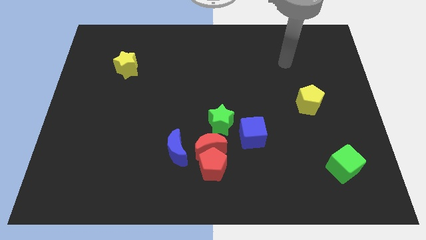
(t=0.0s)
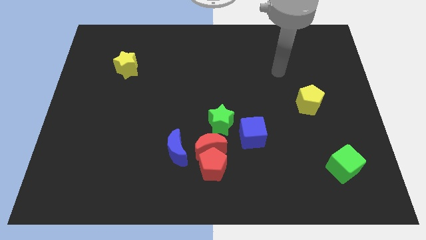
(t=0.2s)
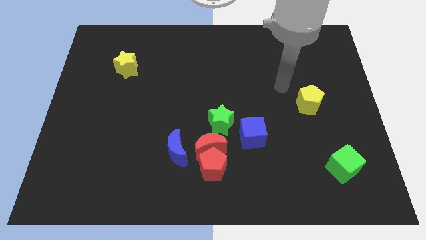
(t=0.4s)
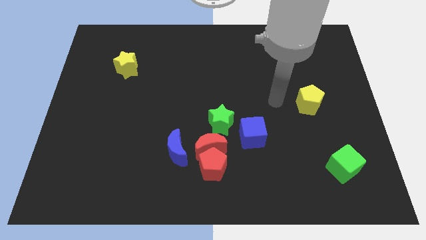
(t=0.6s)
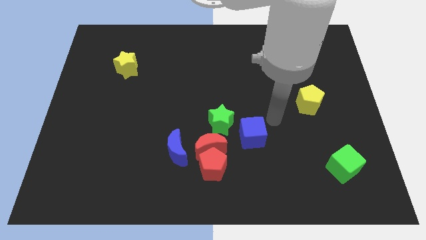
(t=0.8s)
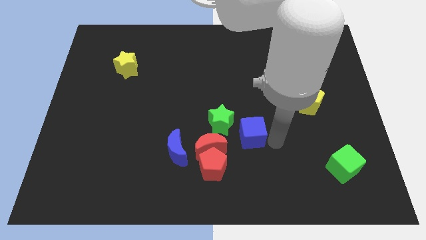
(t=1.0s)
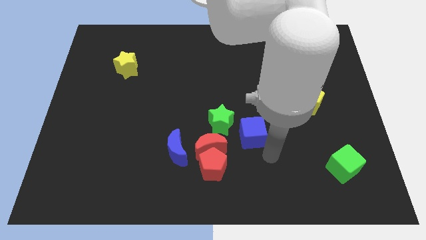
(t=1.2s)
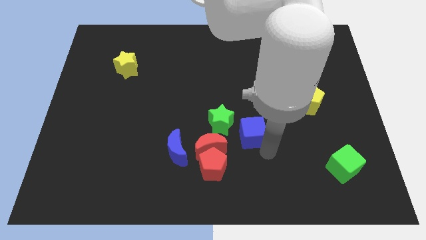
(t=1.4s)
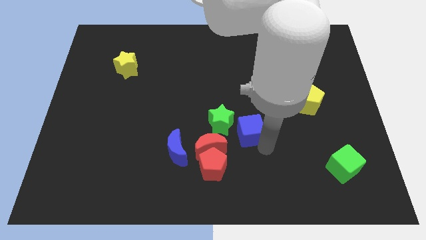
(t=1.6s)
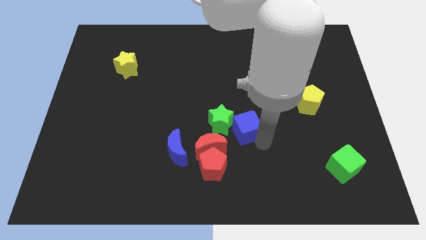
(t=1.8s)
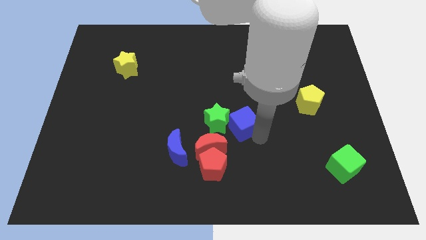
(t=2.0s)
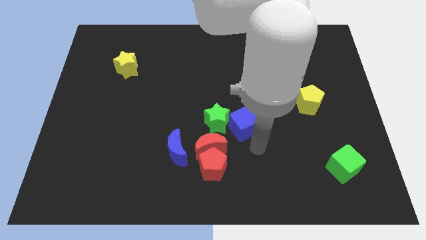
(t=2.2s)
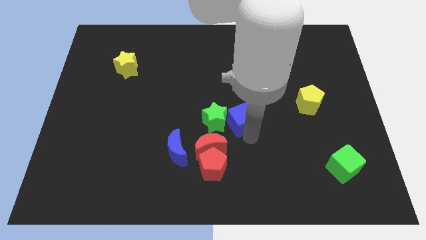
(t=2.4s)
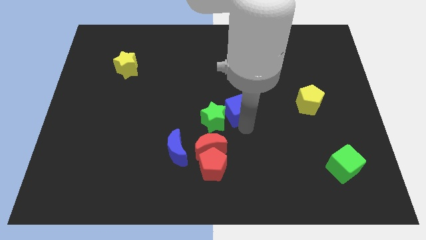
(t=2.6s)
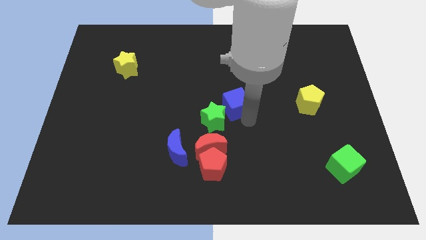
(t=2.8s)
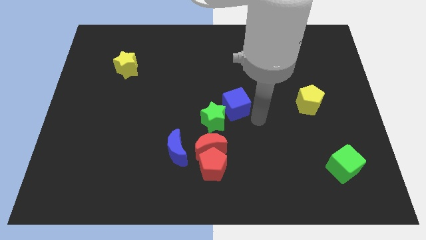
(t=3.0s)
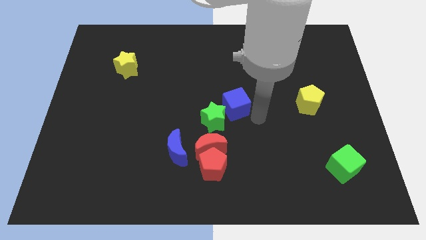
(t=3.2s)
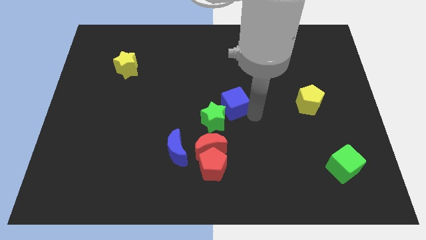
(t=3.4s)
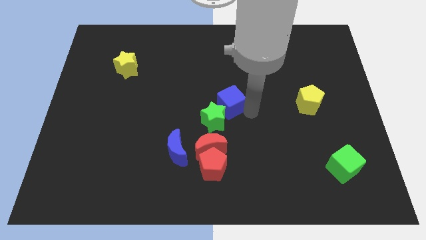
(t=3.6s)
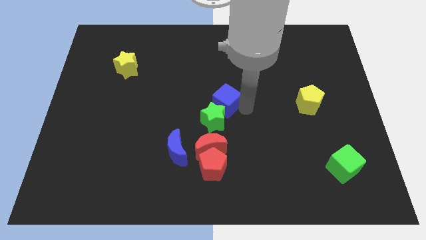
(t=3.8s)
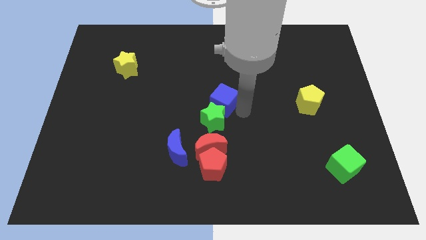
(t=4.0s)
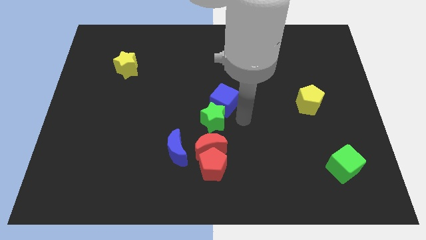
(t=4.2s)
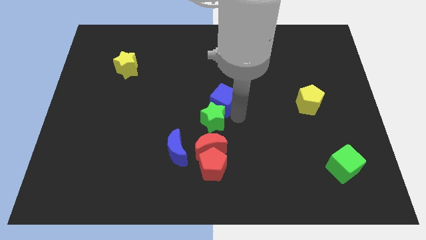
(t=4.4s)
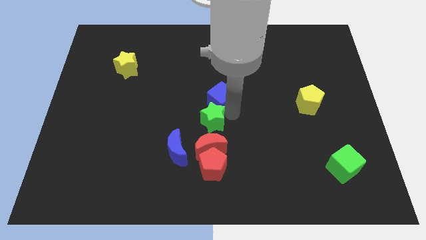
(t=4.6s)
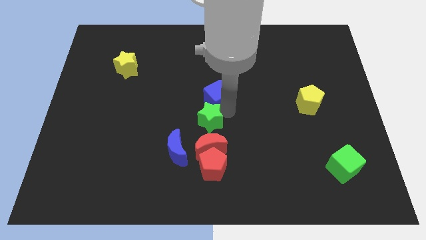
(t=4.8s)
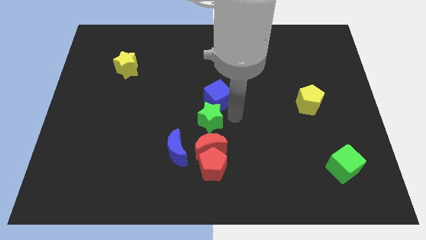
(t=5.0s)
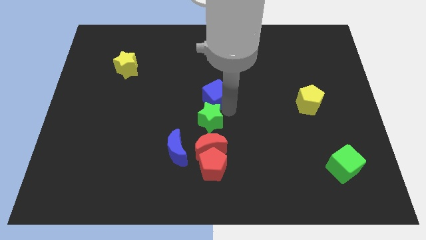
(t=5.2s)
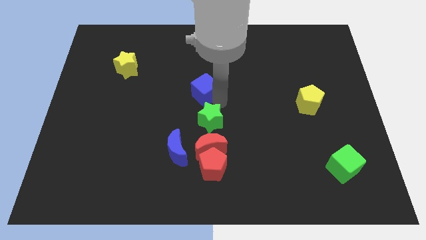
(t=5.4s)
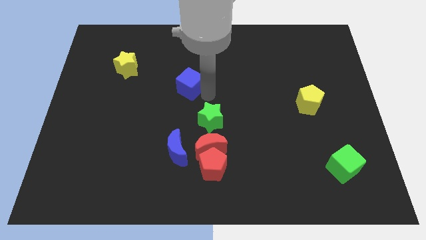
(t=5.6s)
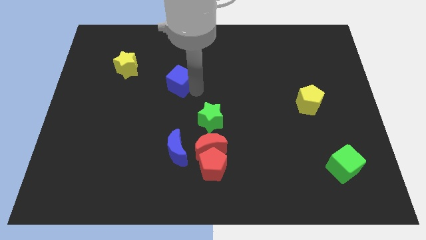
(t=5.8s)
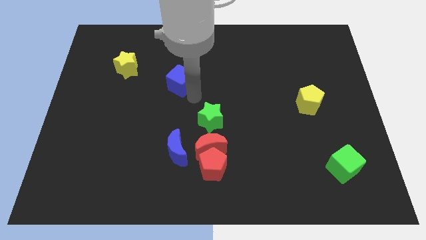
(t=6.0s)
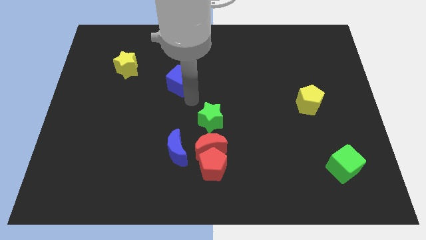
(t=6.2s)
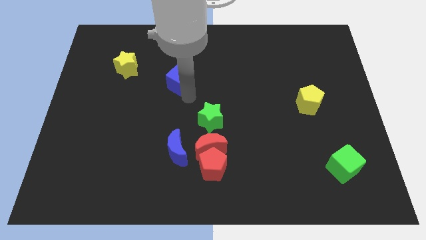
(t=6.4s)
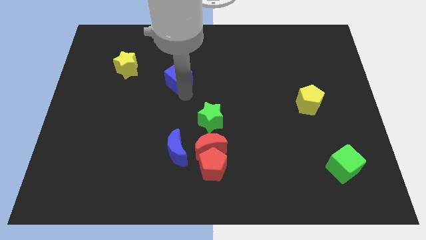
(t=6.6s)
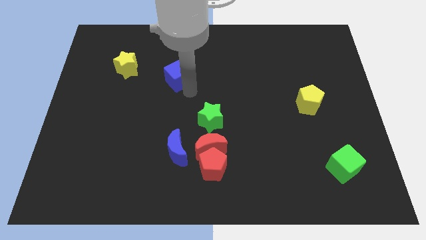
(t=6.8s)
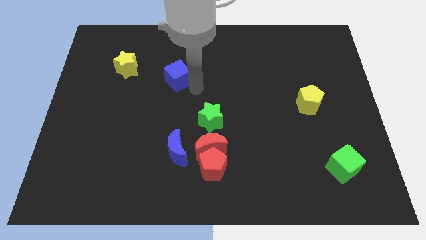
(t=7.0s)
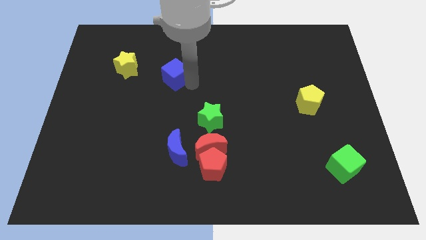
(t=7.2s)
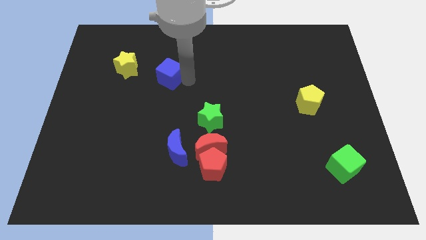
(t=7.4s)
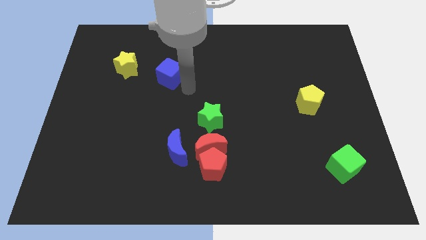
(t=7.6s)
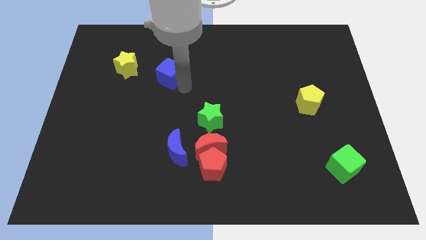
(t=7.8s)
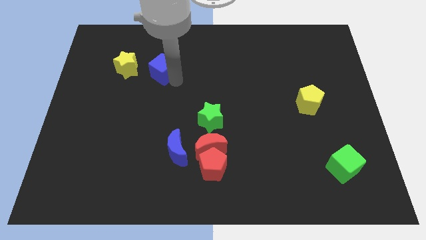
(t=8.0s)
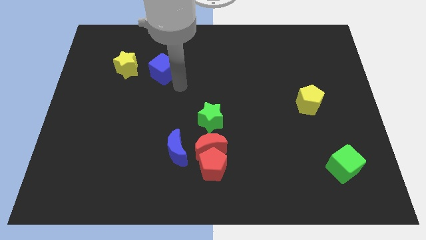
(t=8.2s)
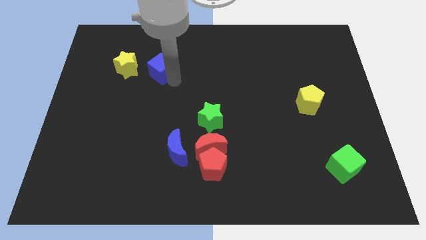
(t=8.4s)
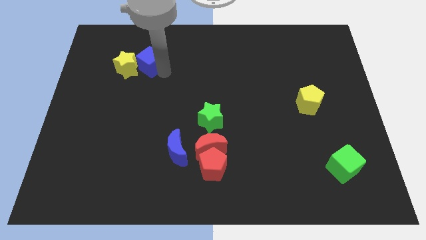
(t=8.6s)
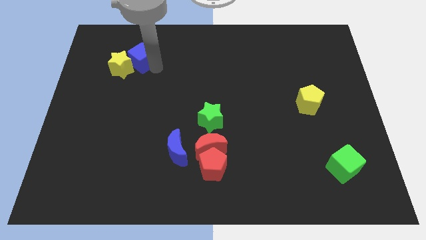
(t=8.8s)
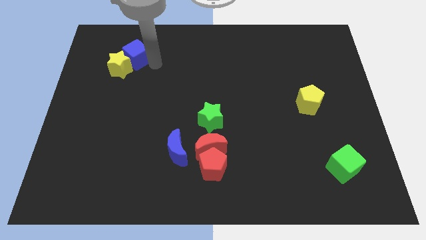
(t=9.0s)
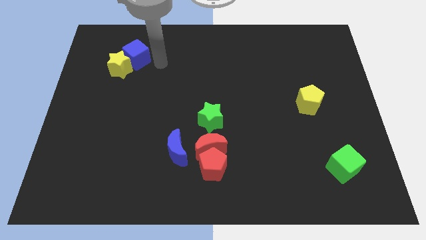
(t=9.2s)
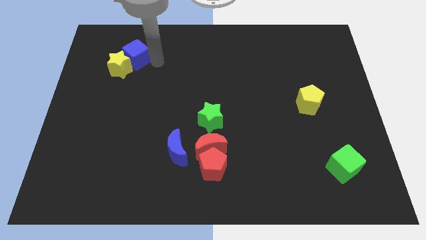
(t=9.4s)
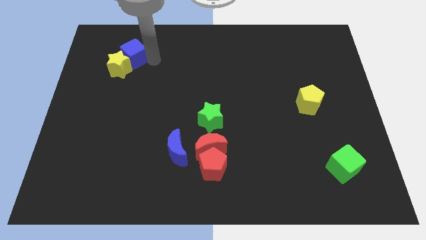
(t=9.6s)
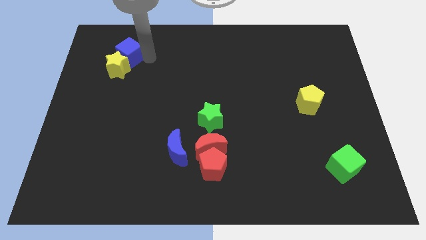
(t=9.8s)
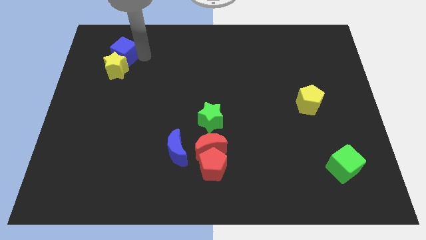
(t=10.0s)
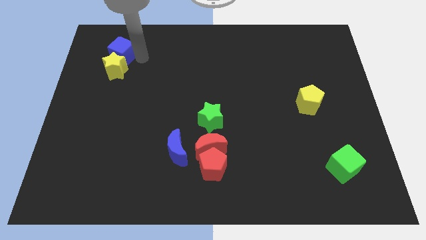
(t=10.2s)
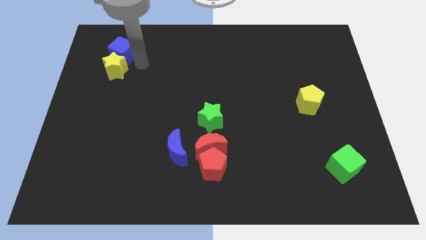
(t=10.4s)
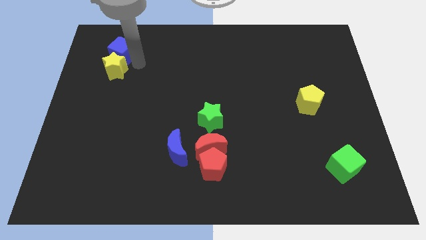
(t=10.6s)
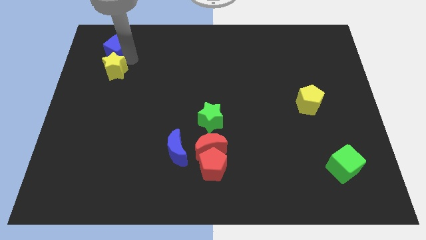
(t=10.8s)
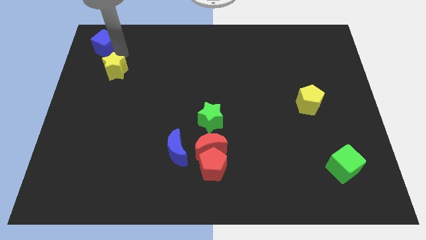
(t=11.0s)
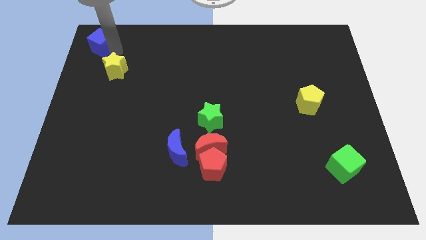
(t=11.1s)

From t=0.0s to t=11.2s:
put the blue cube to the top left of the board

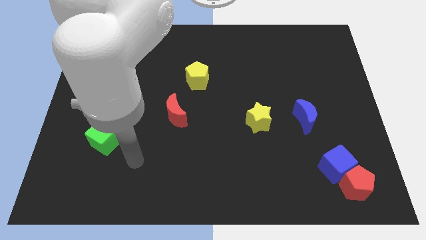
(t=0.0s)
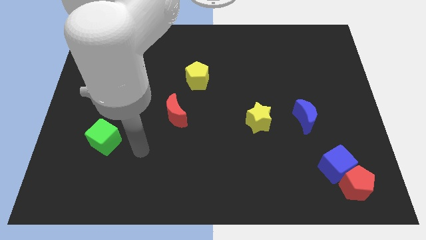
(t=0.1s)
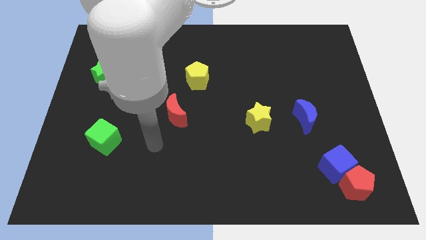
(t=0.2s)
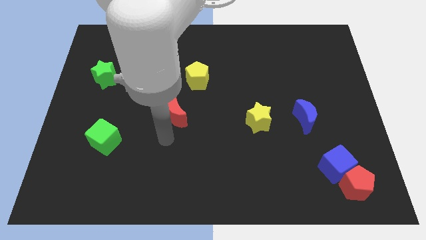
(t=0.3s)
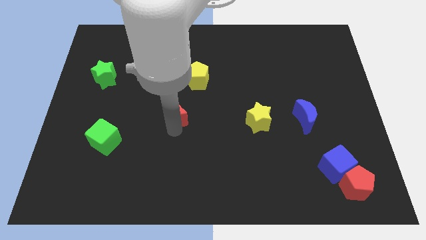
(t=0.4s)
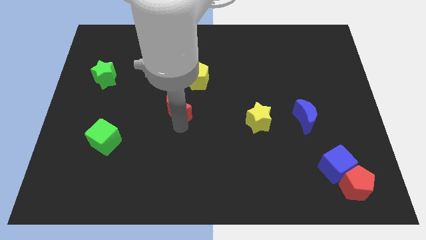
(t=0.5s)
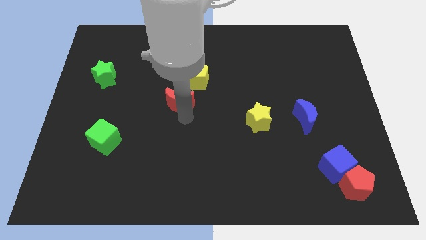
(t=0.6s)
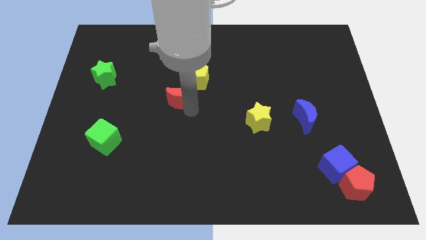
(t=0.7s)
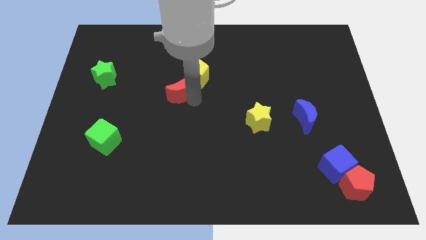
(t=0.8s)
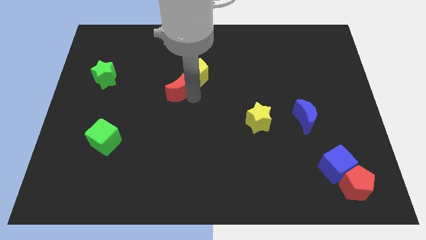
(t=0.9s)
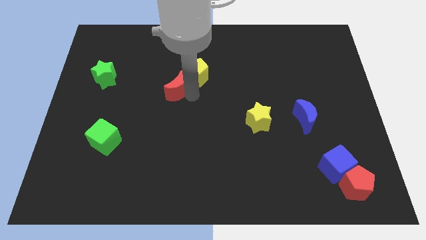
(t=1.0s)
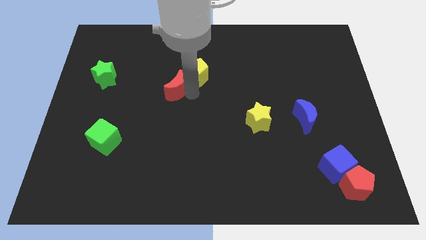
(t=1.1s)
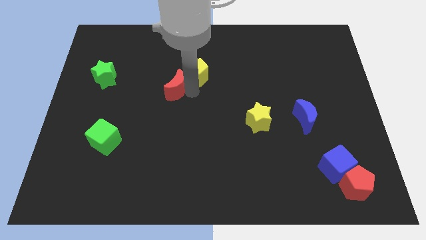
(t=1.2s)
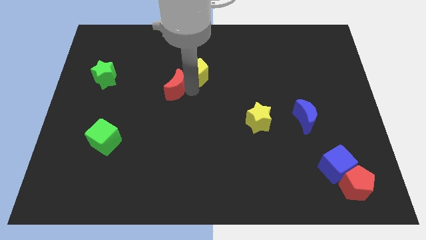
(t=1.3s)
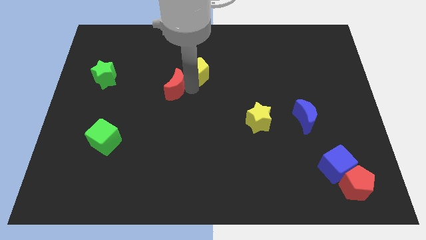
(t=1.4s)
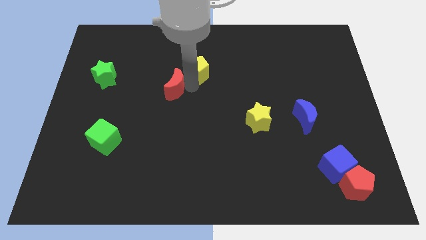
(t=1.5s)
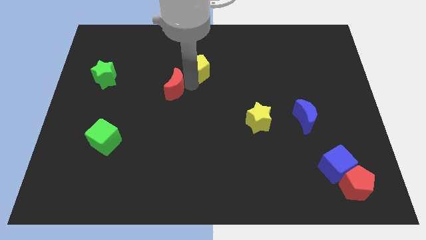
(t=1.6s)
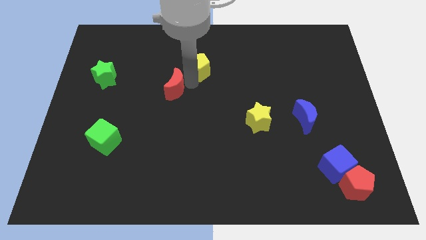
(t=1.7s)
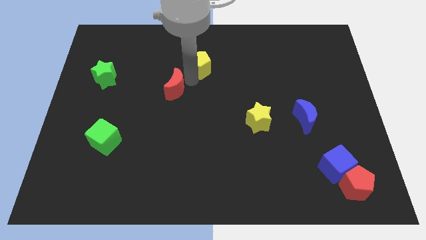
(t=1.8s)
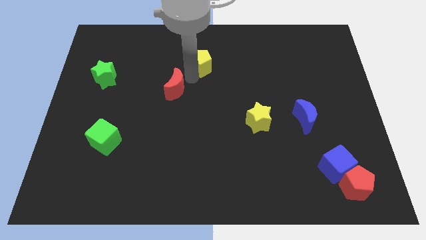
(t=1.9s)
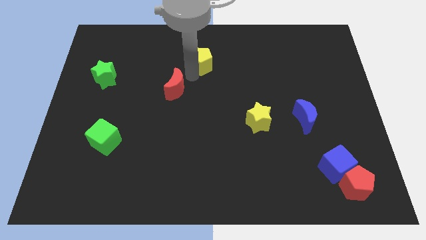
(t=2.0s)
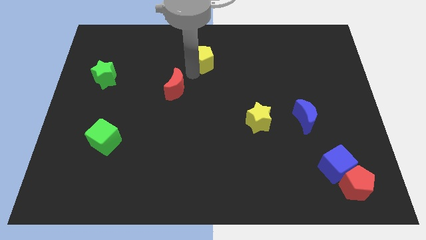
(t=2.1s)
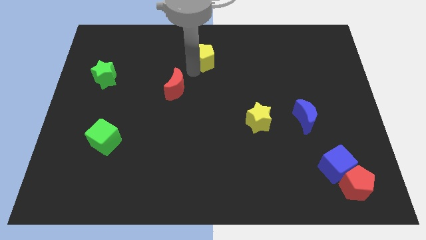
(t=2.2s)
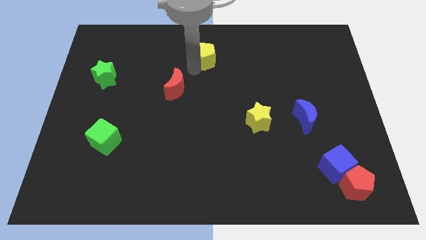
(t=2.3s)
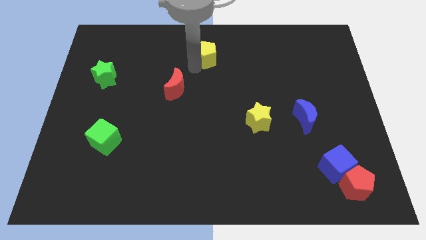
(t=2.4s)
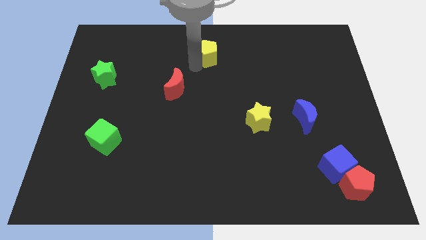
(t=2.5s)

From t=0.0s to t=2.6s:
slide the yellow pentagon to the top side
